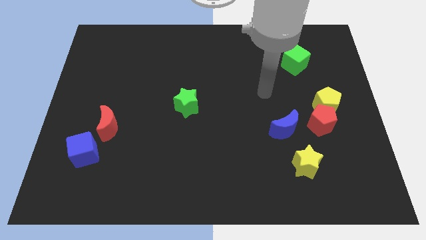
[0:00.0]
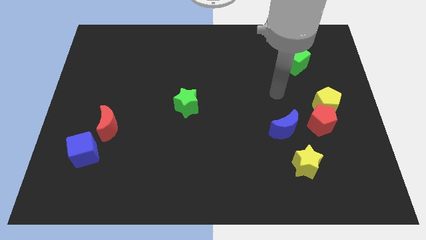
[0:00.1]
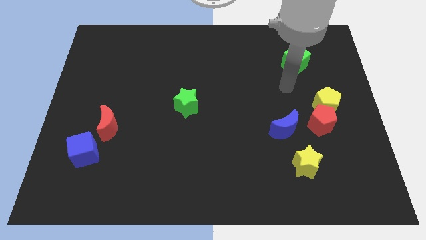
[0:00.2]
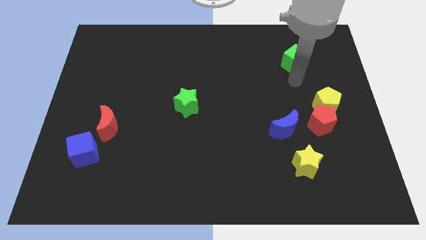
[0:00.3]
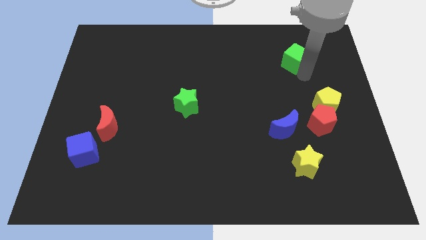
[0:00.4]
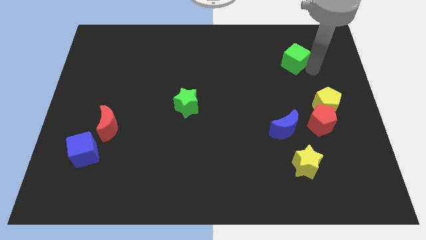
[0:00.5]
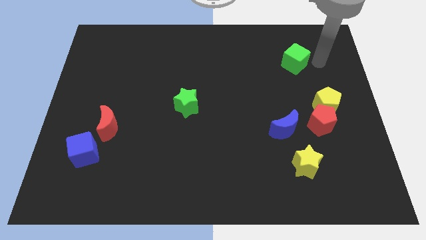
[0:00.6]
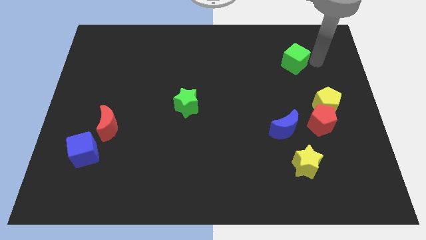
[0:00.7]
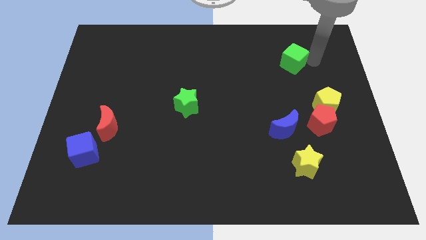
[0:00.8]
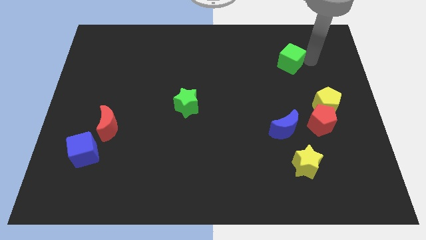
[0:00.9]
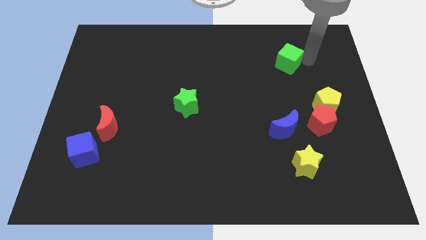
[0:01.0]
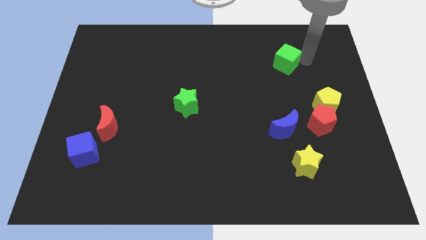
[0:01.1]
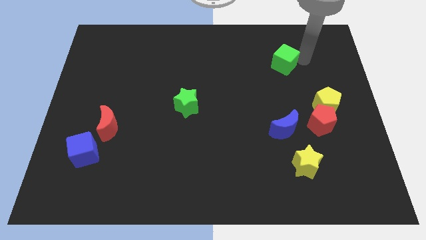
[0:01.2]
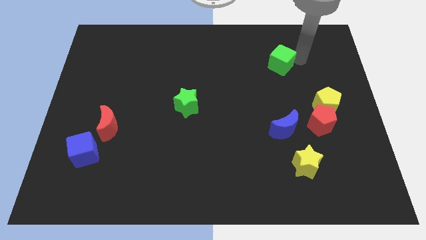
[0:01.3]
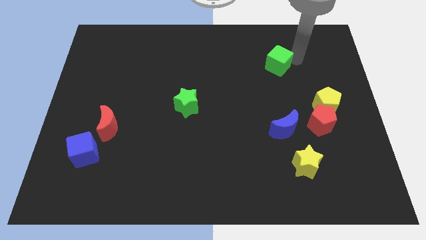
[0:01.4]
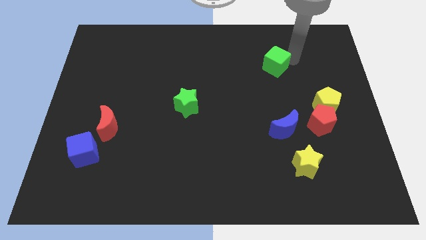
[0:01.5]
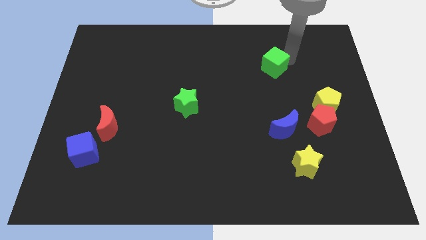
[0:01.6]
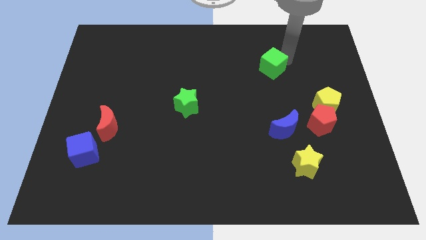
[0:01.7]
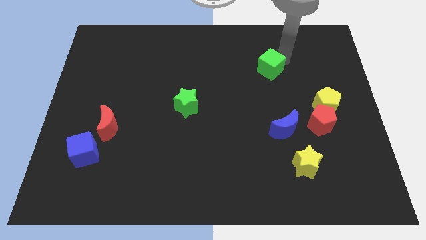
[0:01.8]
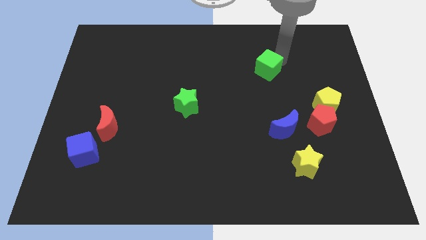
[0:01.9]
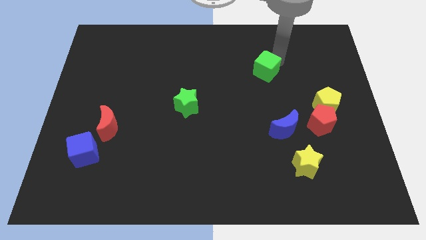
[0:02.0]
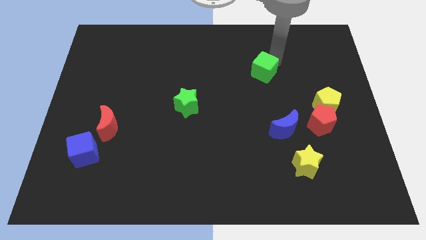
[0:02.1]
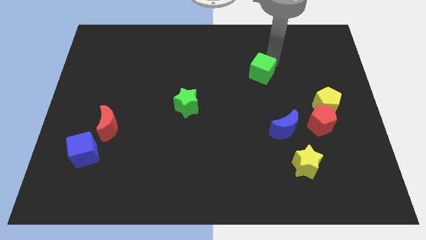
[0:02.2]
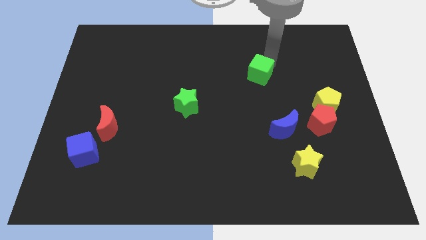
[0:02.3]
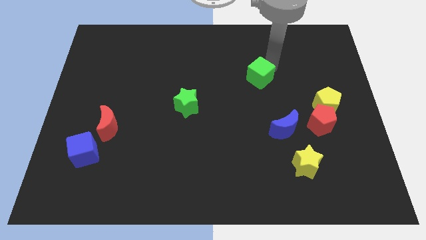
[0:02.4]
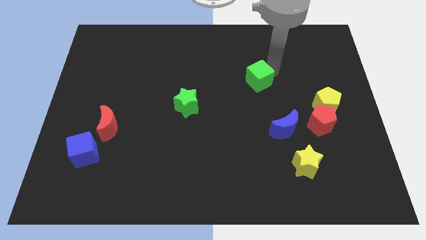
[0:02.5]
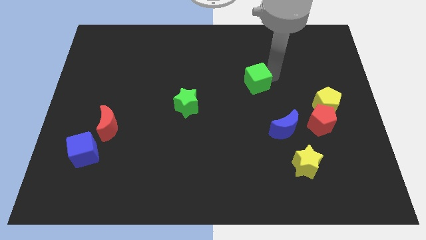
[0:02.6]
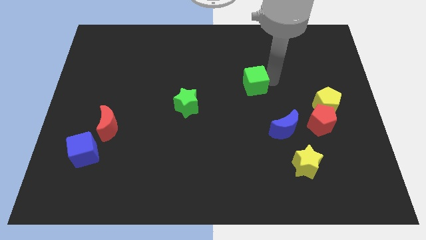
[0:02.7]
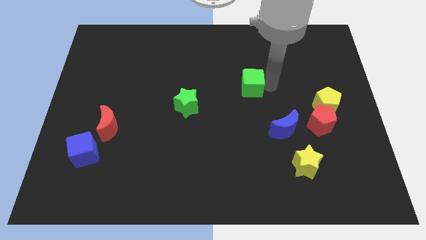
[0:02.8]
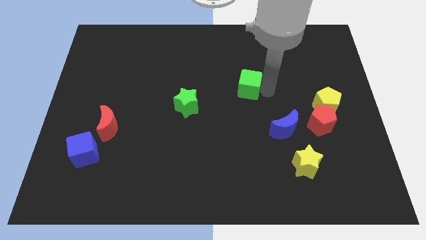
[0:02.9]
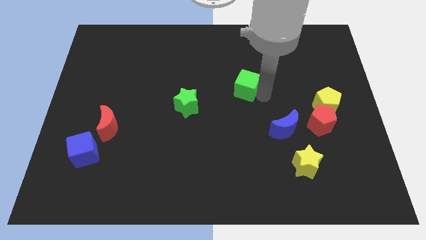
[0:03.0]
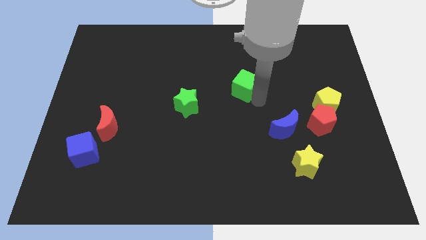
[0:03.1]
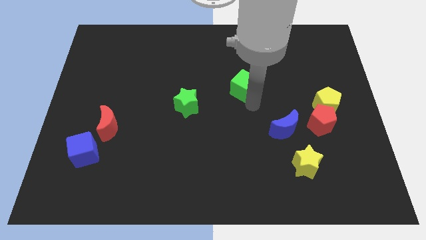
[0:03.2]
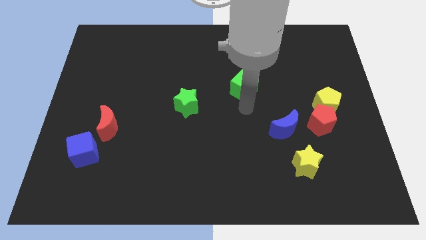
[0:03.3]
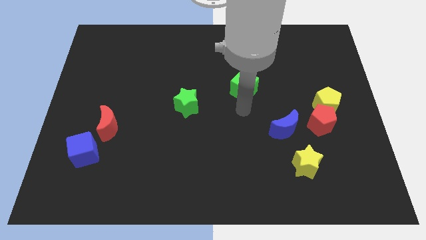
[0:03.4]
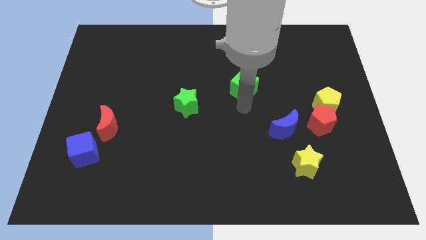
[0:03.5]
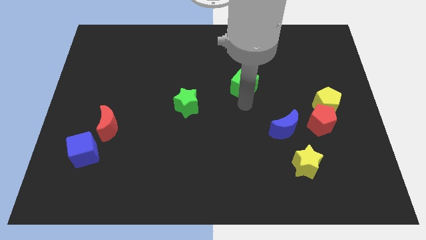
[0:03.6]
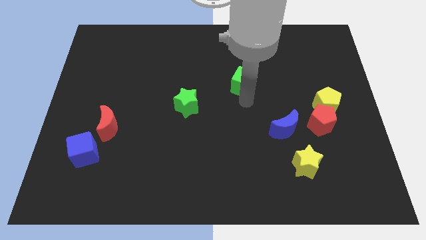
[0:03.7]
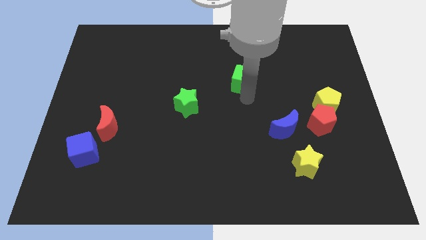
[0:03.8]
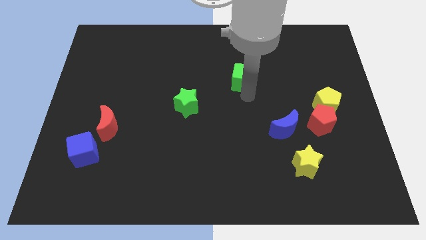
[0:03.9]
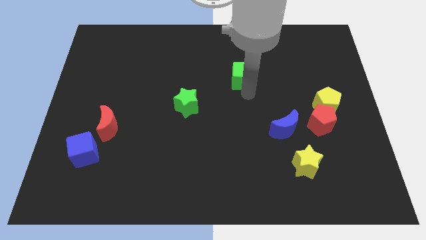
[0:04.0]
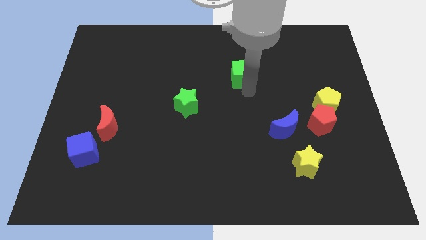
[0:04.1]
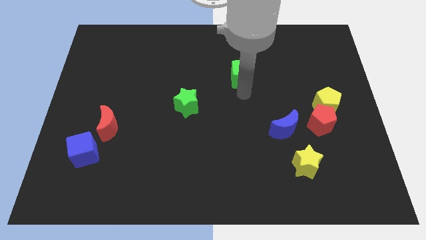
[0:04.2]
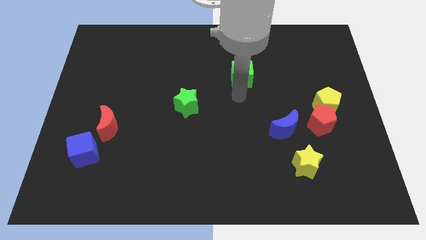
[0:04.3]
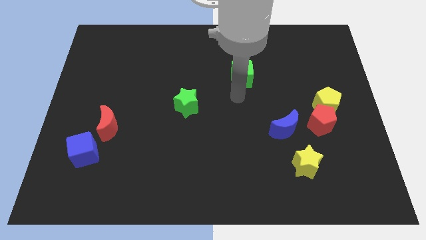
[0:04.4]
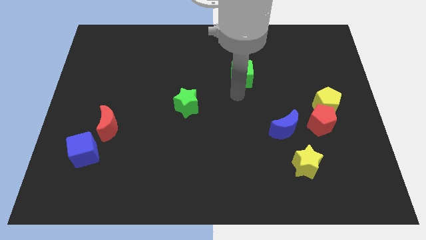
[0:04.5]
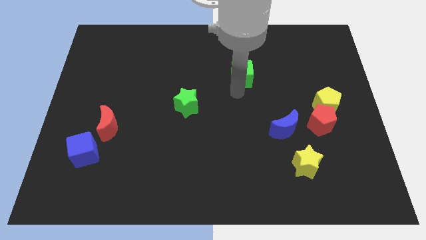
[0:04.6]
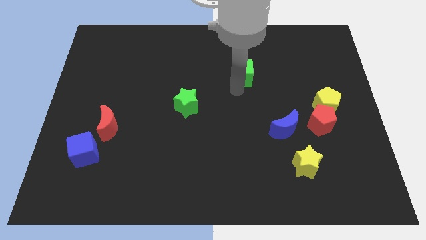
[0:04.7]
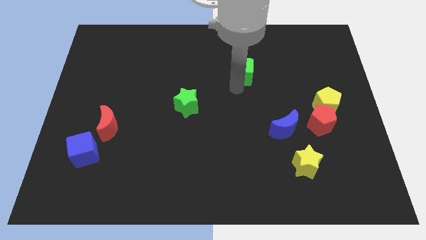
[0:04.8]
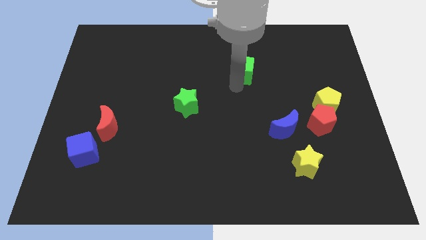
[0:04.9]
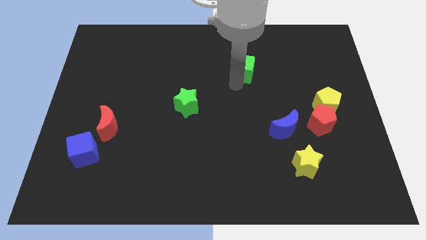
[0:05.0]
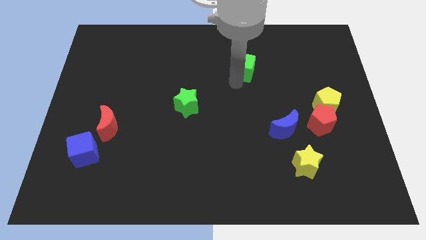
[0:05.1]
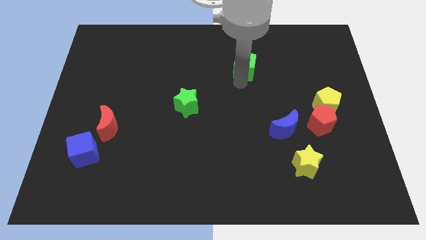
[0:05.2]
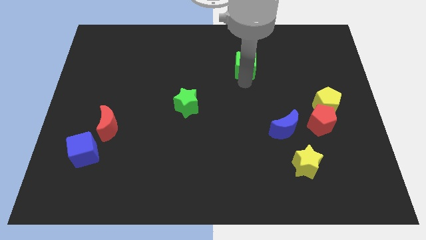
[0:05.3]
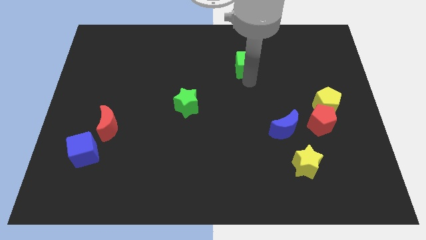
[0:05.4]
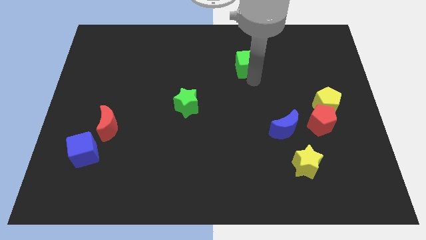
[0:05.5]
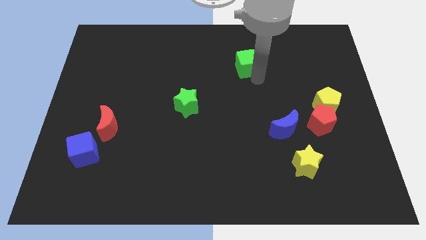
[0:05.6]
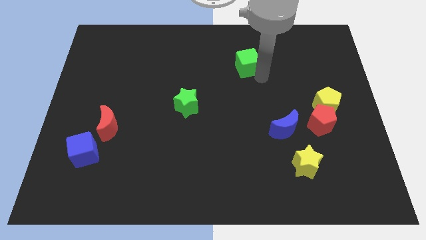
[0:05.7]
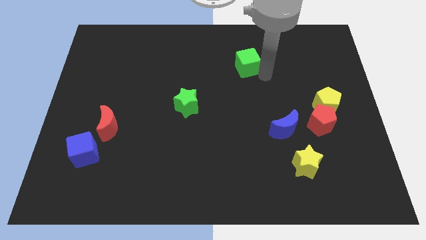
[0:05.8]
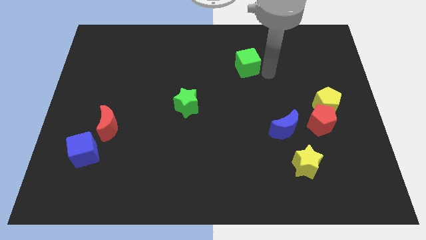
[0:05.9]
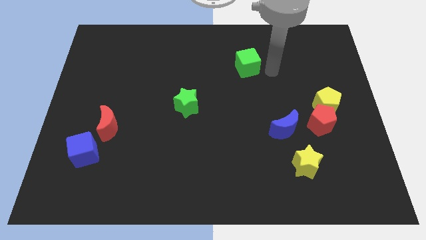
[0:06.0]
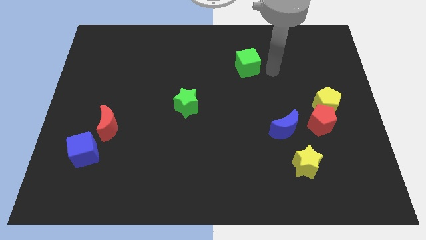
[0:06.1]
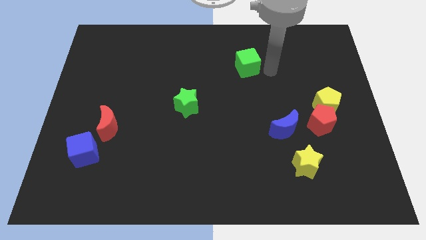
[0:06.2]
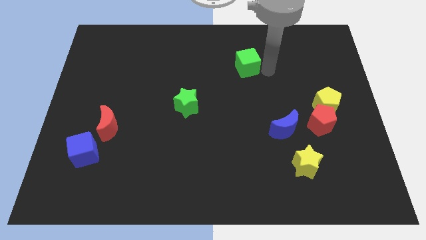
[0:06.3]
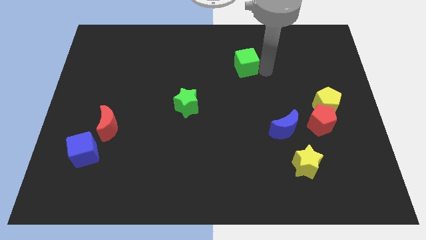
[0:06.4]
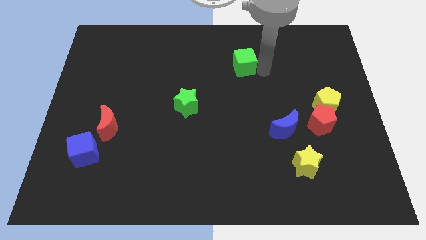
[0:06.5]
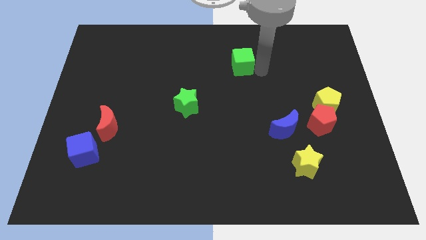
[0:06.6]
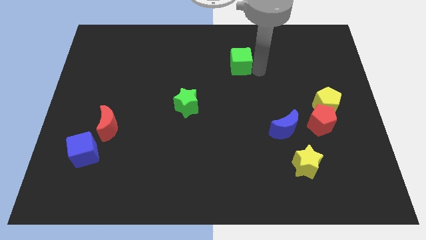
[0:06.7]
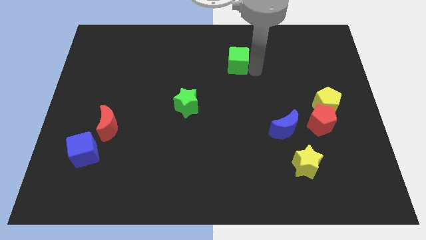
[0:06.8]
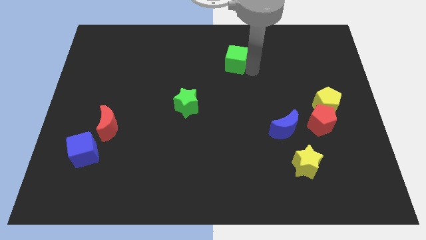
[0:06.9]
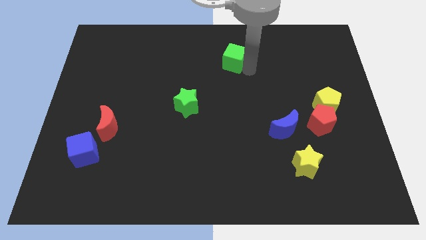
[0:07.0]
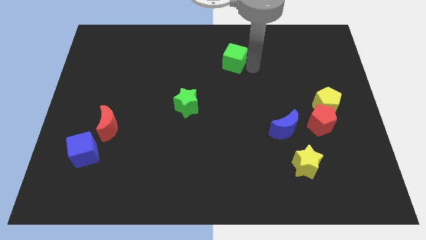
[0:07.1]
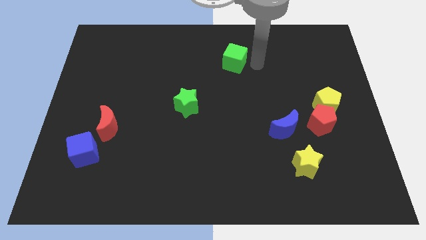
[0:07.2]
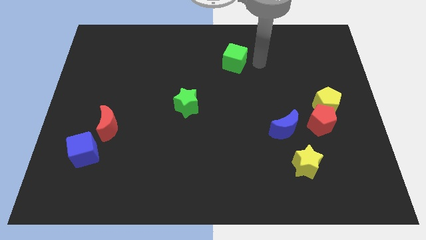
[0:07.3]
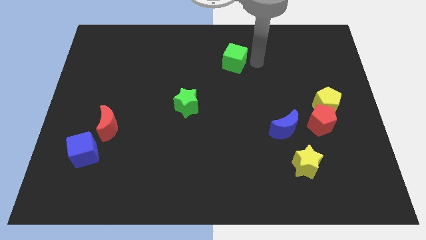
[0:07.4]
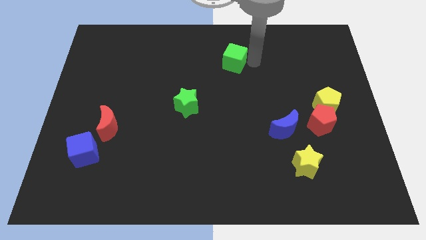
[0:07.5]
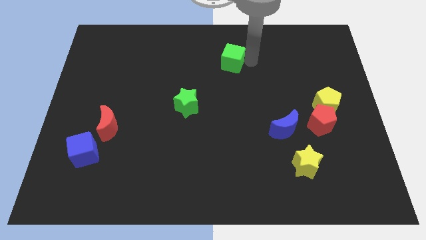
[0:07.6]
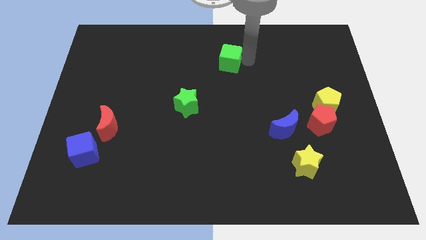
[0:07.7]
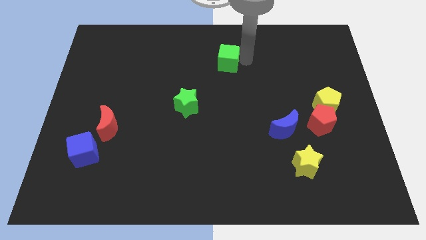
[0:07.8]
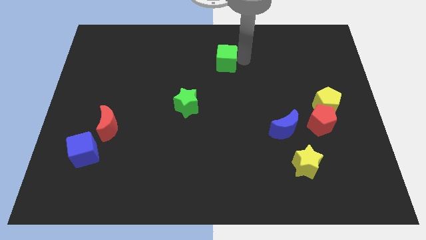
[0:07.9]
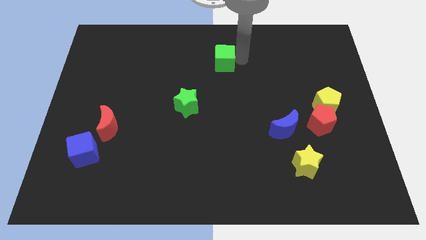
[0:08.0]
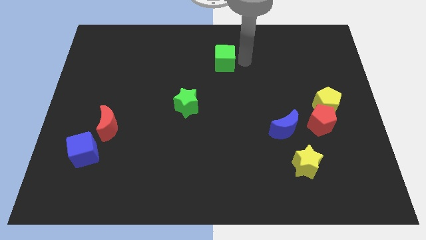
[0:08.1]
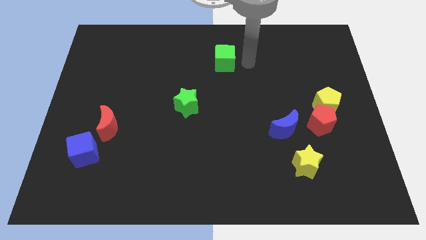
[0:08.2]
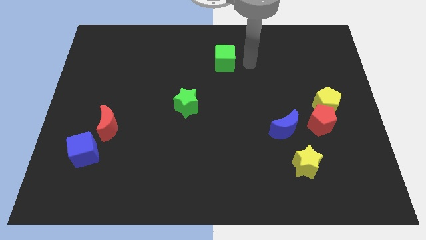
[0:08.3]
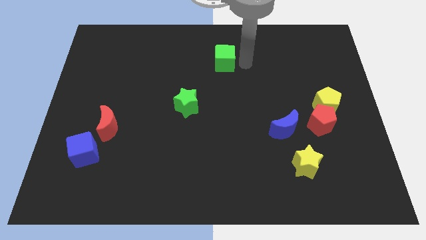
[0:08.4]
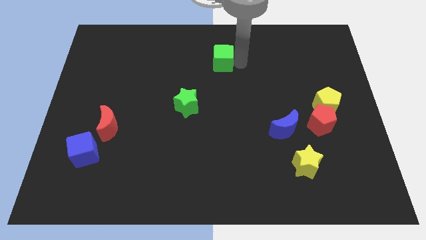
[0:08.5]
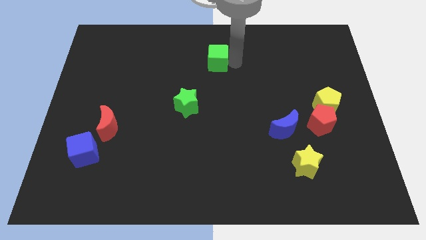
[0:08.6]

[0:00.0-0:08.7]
push the green cube to the left
